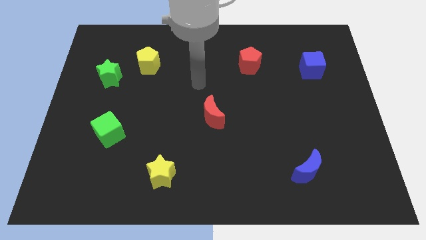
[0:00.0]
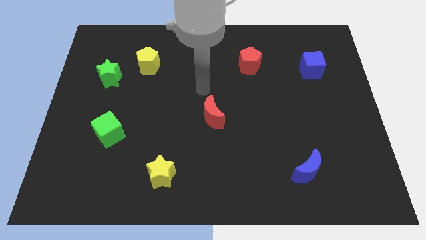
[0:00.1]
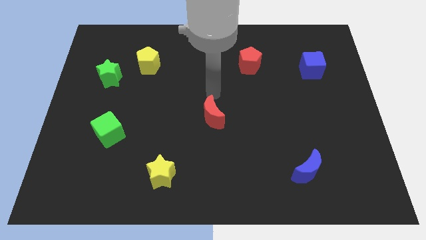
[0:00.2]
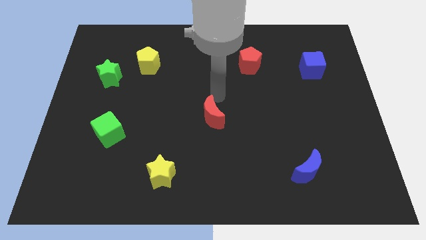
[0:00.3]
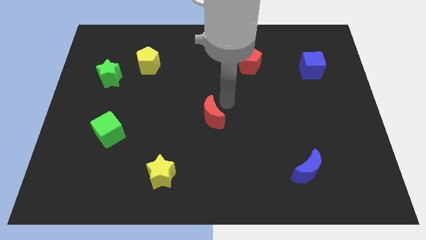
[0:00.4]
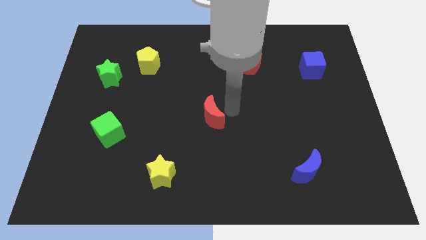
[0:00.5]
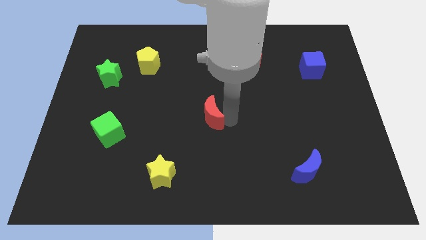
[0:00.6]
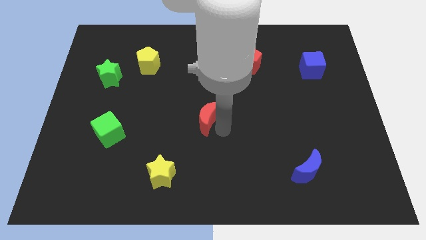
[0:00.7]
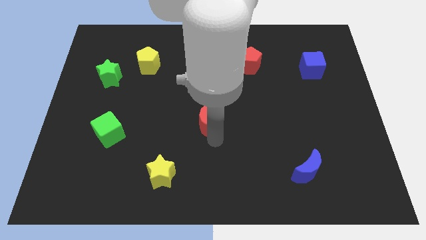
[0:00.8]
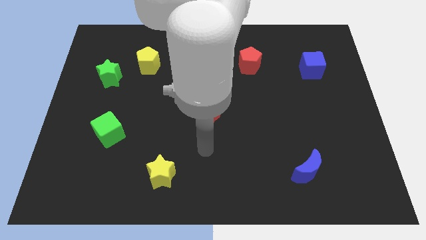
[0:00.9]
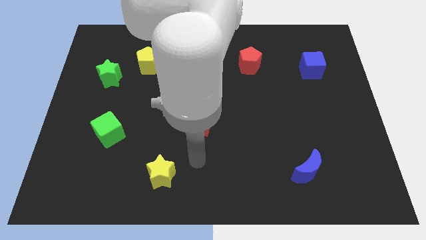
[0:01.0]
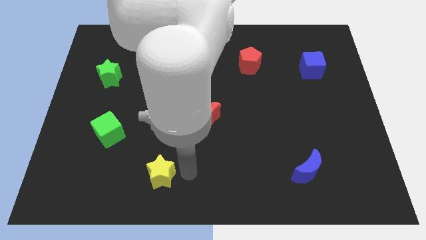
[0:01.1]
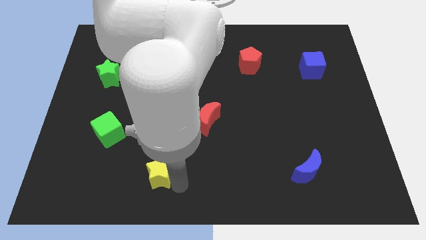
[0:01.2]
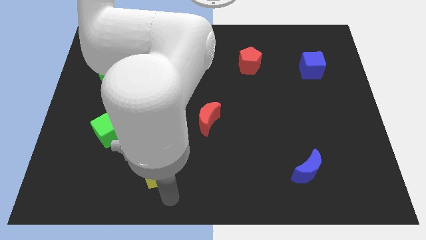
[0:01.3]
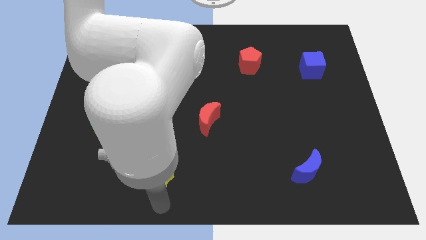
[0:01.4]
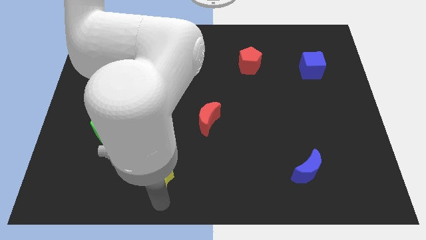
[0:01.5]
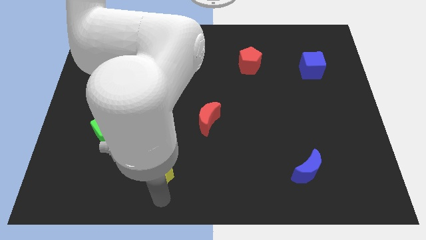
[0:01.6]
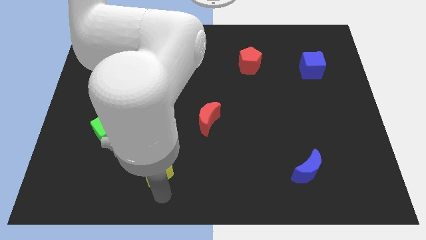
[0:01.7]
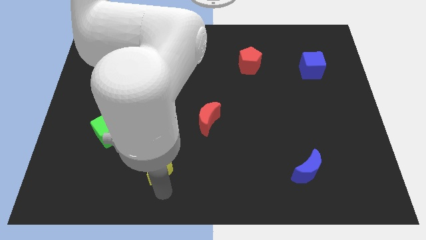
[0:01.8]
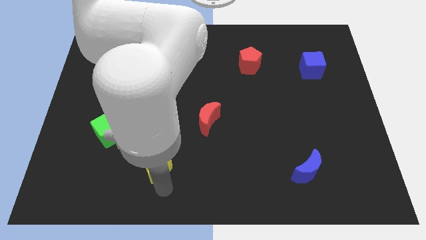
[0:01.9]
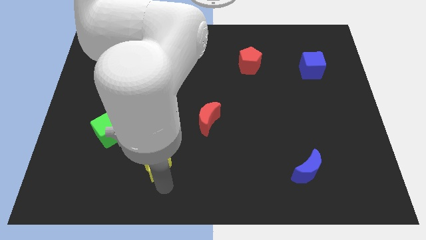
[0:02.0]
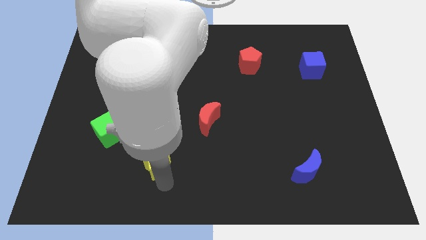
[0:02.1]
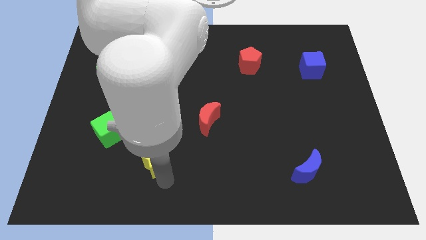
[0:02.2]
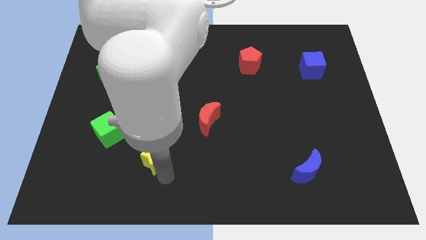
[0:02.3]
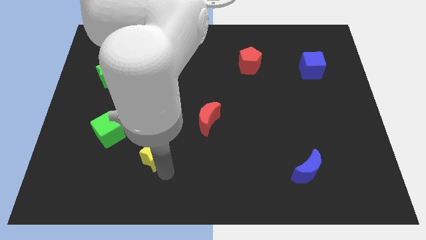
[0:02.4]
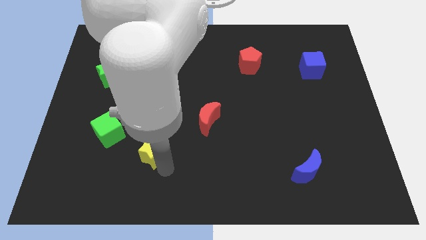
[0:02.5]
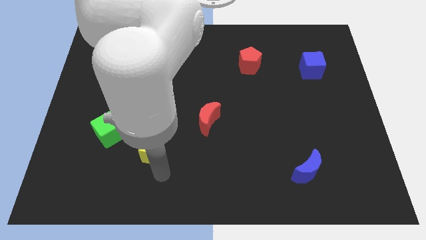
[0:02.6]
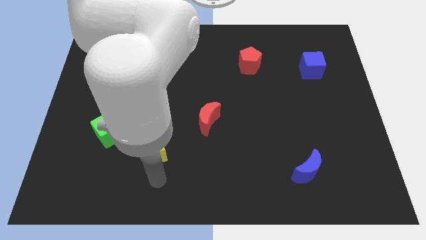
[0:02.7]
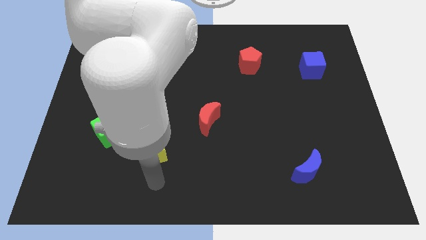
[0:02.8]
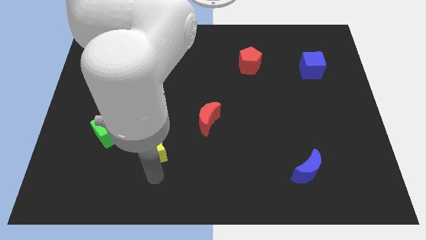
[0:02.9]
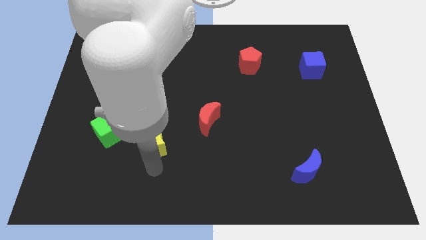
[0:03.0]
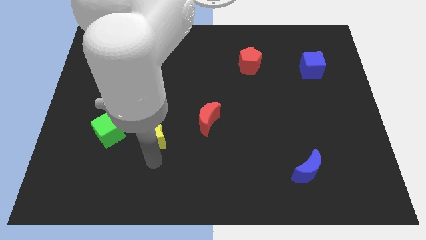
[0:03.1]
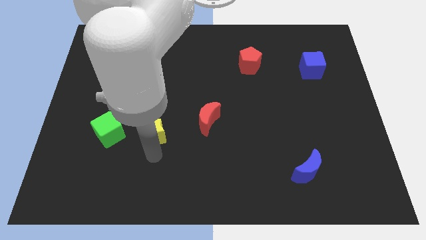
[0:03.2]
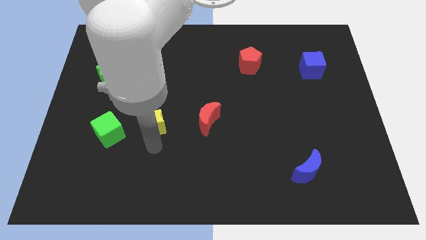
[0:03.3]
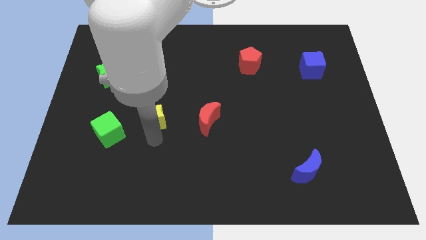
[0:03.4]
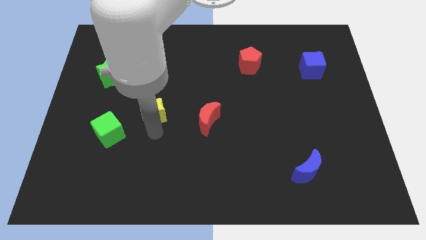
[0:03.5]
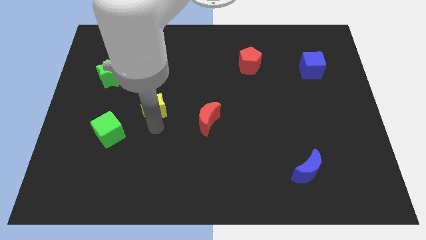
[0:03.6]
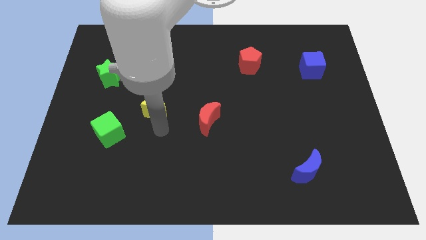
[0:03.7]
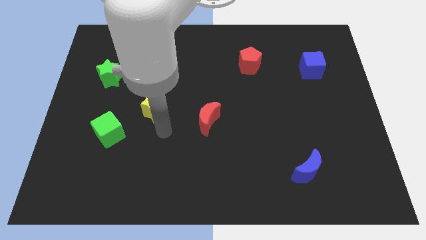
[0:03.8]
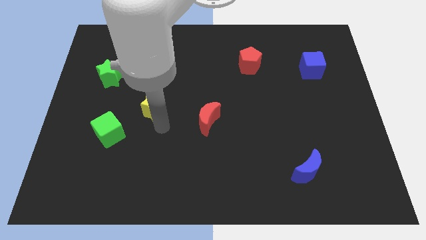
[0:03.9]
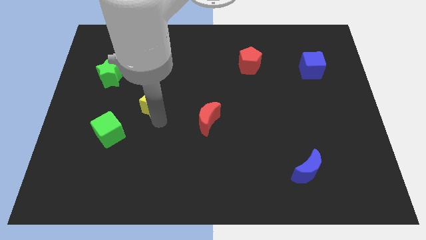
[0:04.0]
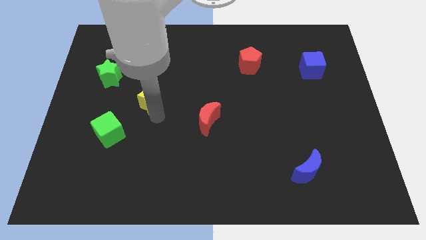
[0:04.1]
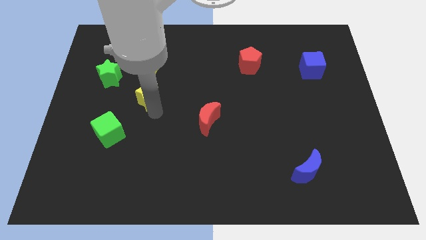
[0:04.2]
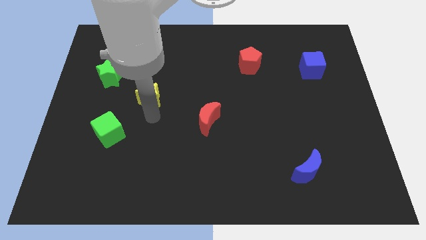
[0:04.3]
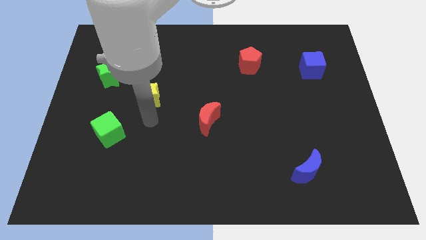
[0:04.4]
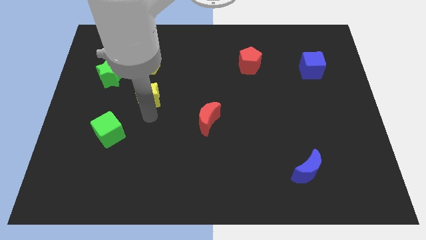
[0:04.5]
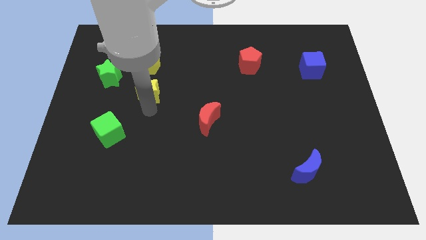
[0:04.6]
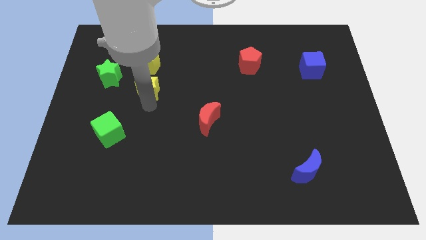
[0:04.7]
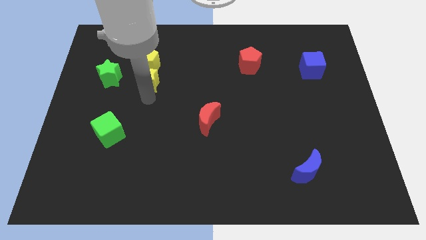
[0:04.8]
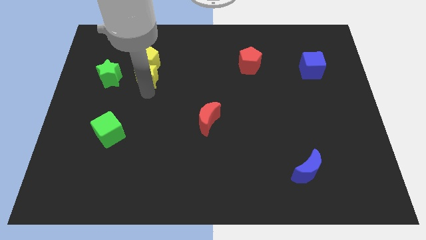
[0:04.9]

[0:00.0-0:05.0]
move the yellow star close to the yellow pentagon

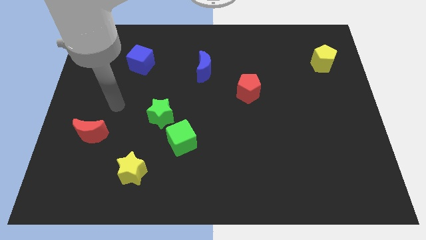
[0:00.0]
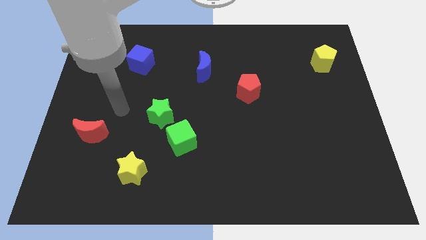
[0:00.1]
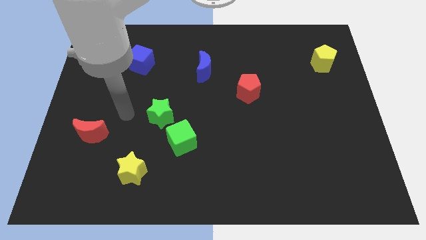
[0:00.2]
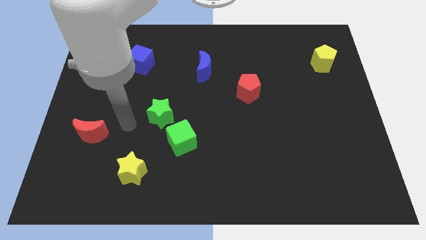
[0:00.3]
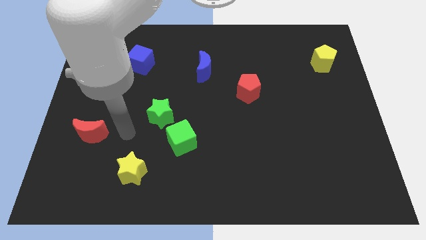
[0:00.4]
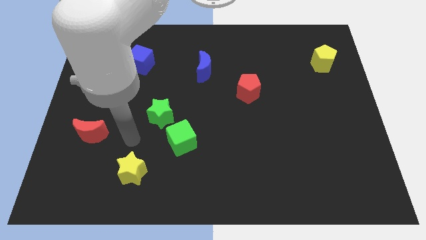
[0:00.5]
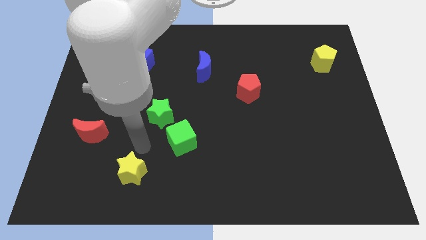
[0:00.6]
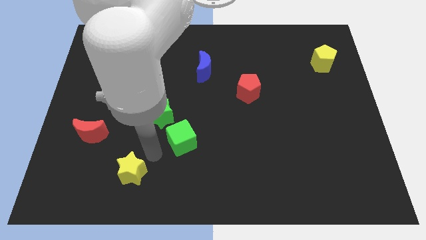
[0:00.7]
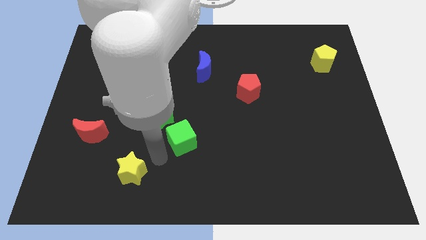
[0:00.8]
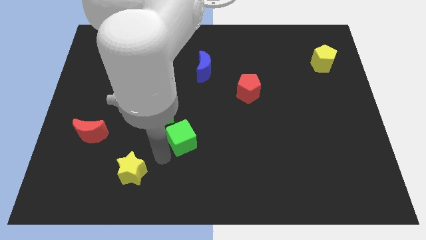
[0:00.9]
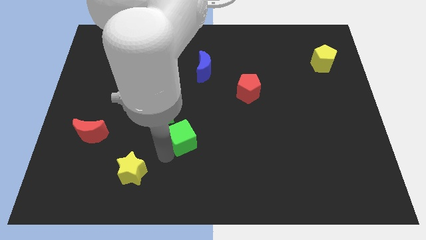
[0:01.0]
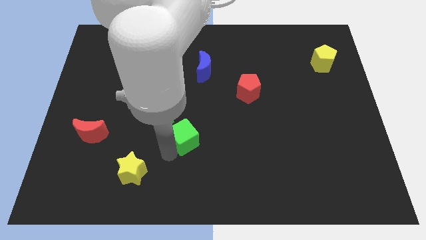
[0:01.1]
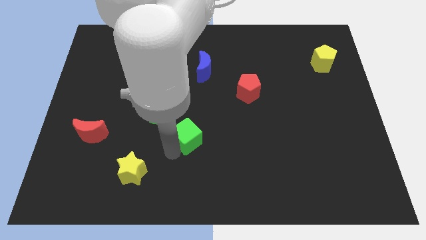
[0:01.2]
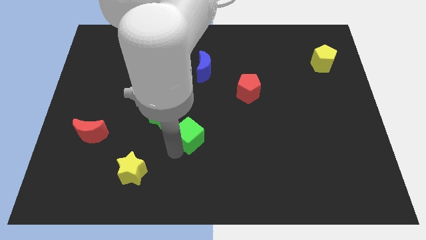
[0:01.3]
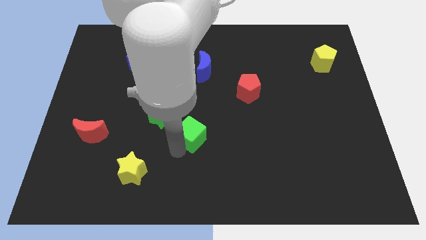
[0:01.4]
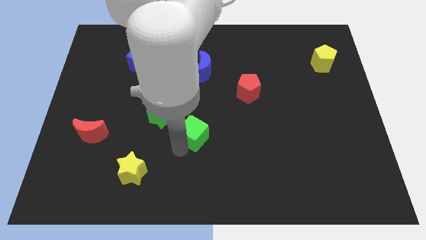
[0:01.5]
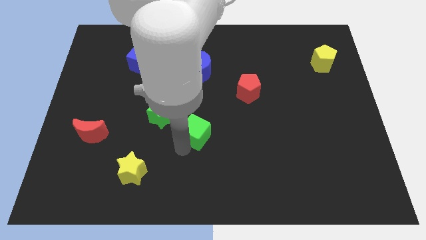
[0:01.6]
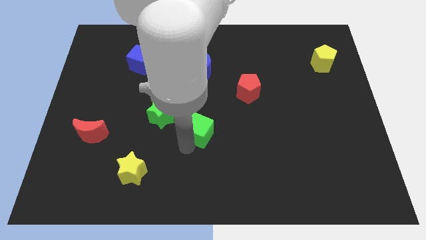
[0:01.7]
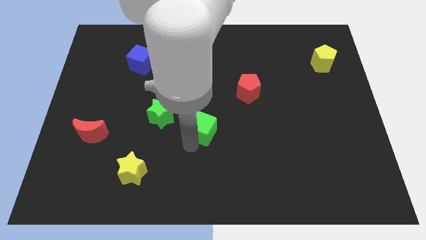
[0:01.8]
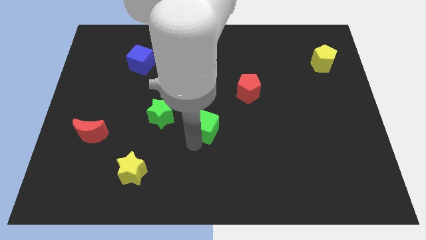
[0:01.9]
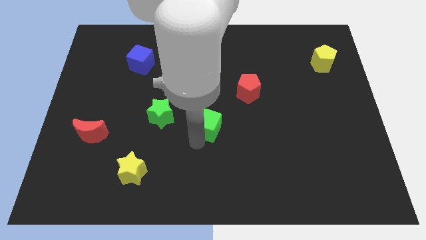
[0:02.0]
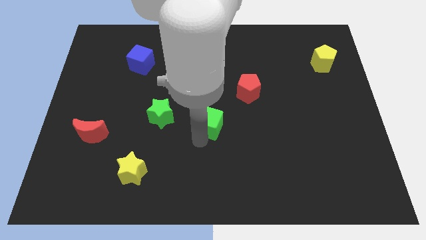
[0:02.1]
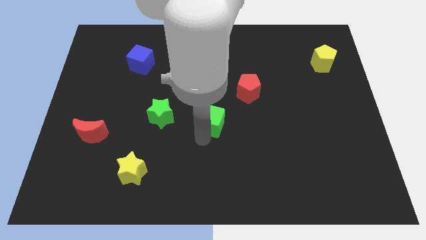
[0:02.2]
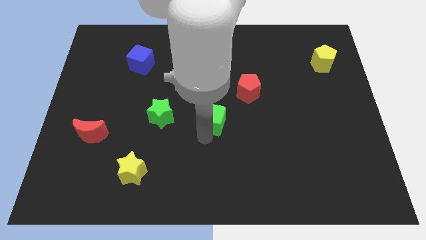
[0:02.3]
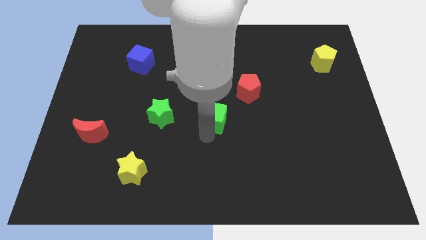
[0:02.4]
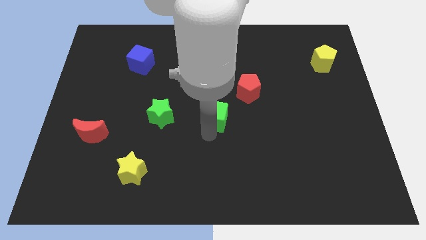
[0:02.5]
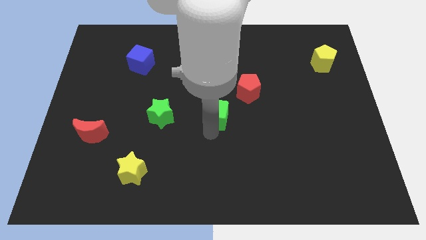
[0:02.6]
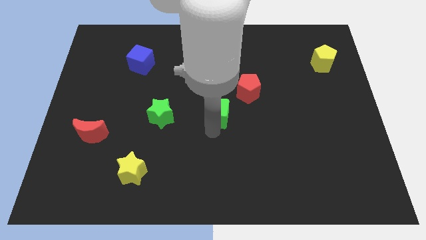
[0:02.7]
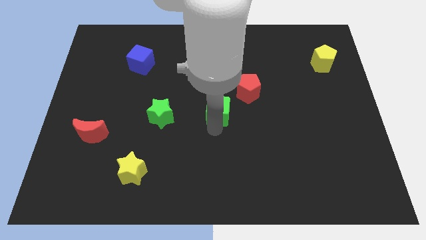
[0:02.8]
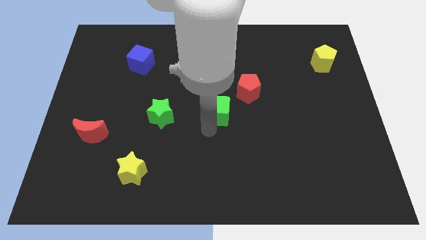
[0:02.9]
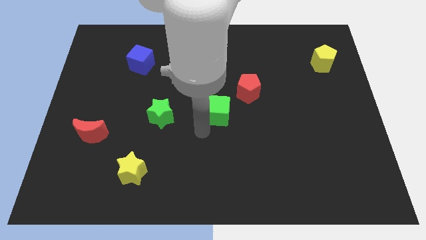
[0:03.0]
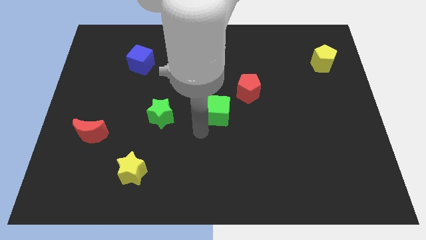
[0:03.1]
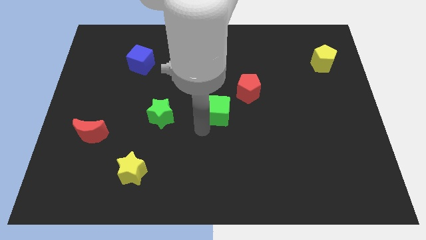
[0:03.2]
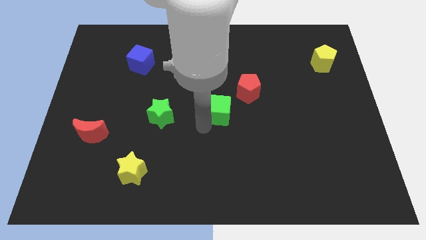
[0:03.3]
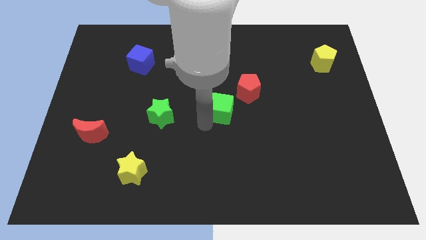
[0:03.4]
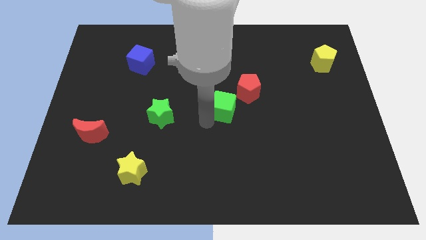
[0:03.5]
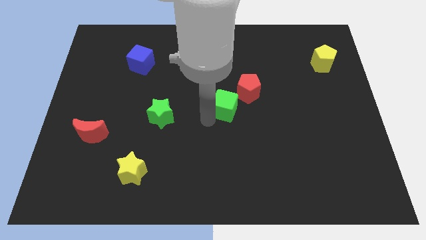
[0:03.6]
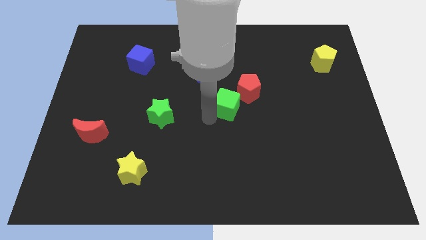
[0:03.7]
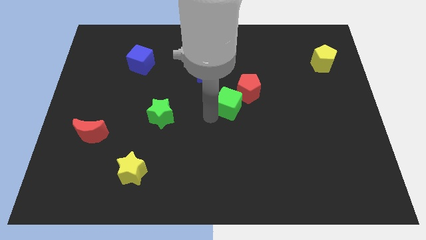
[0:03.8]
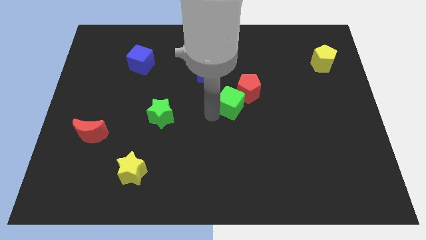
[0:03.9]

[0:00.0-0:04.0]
push the green cube close to the red pentagon

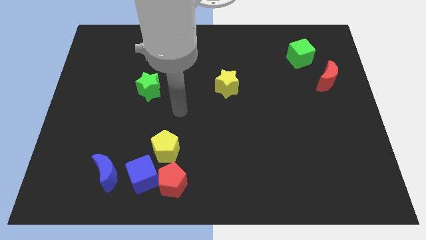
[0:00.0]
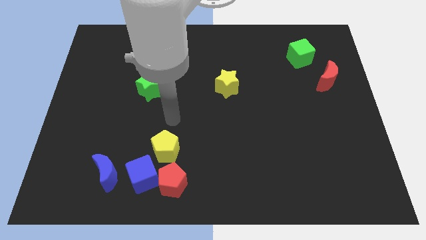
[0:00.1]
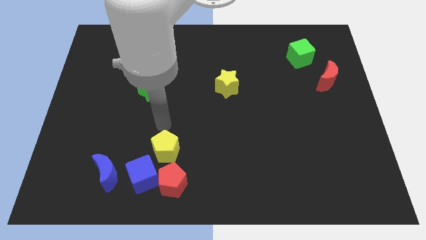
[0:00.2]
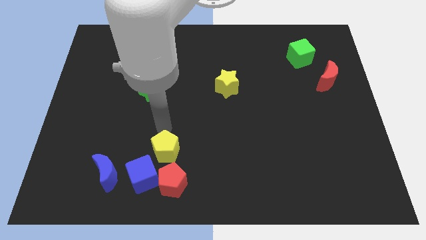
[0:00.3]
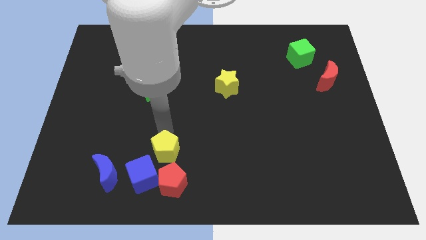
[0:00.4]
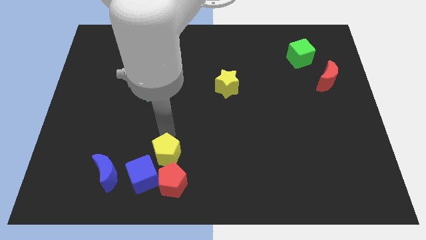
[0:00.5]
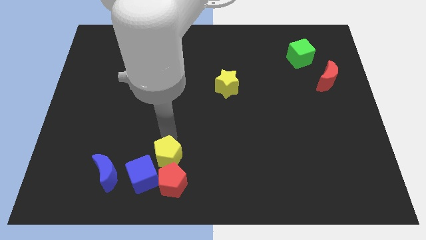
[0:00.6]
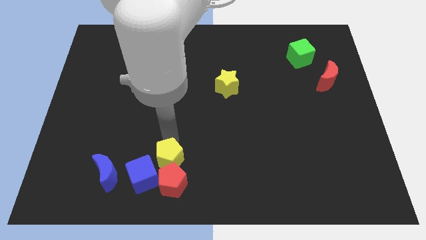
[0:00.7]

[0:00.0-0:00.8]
slide the yellow pentagon to the red pentagon
